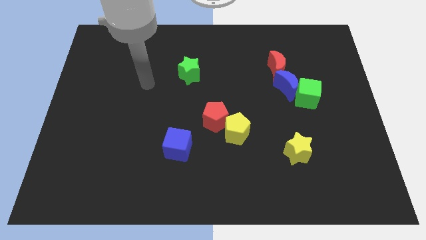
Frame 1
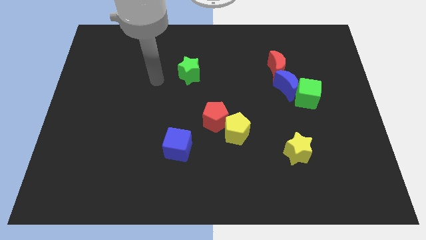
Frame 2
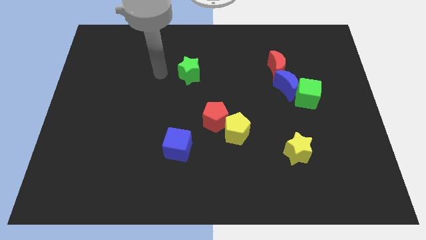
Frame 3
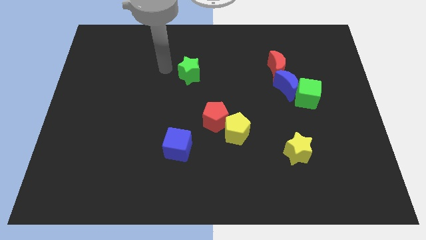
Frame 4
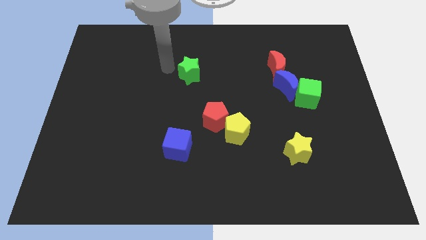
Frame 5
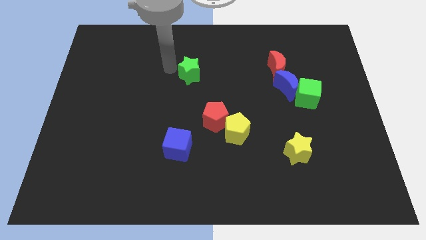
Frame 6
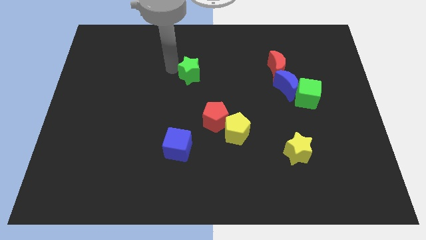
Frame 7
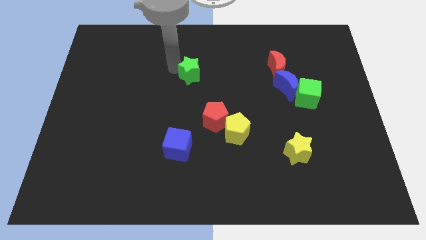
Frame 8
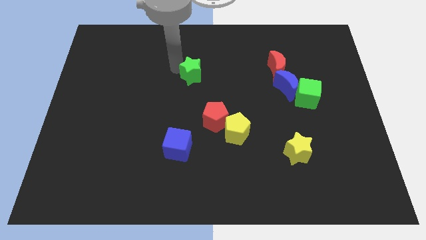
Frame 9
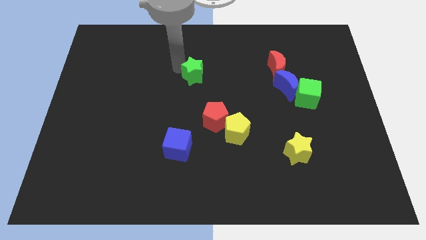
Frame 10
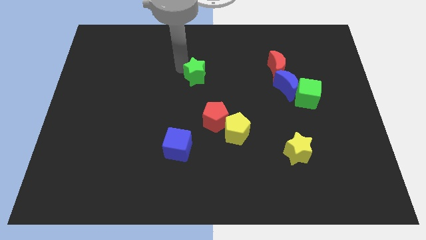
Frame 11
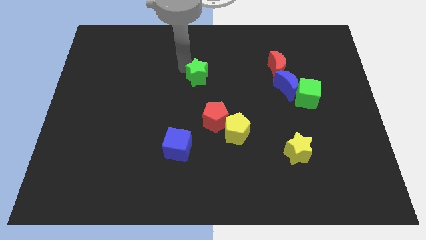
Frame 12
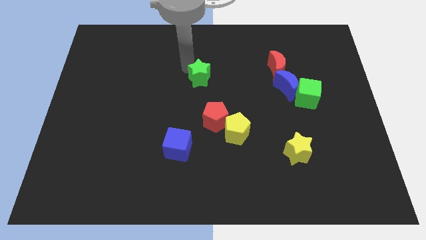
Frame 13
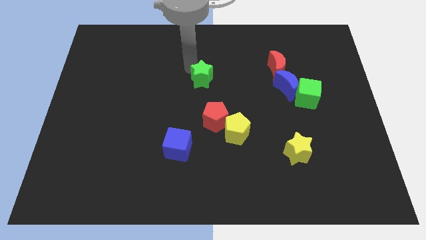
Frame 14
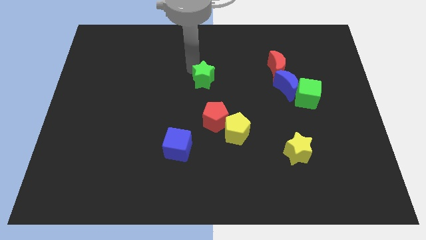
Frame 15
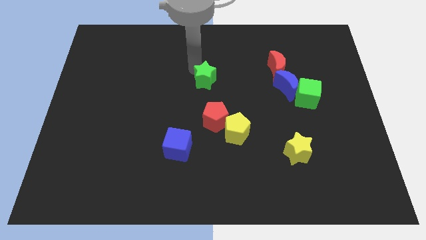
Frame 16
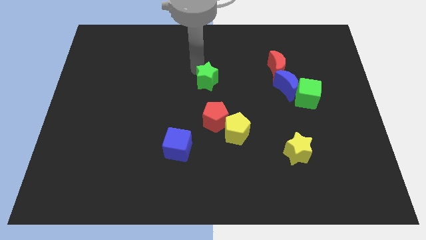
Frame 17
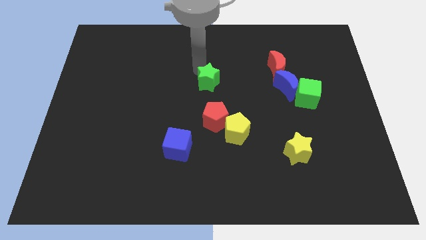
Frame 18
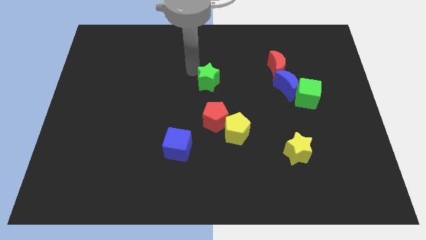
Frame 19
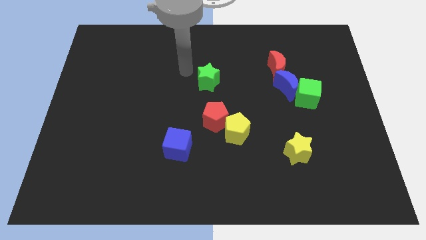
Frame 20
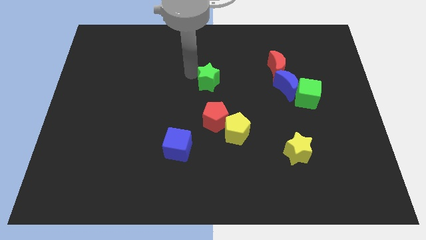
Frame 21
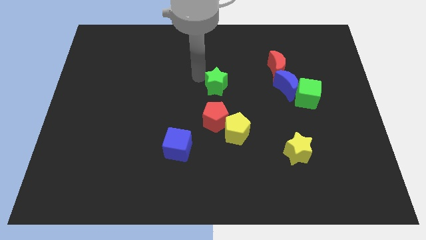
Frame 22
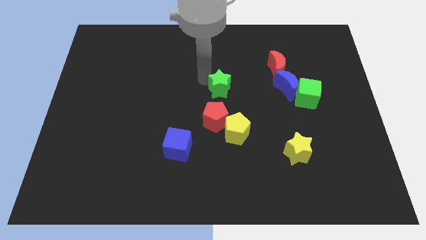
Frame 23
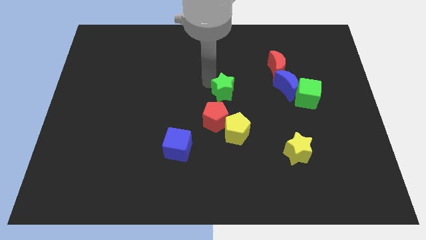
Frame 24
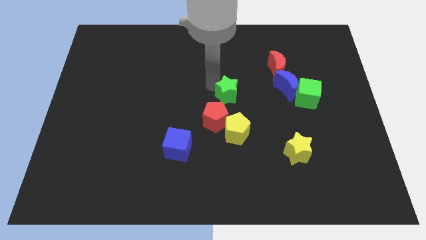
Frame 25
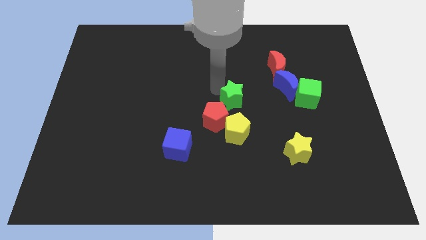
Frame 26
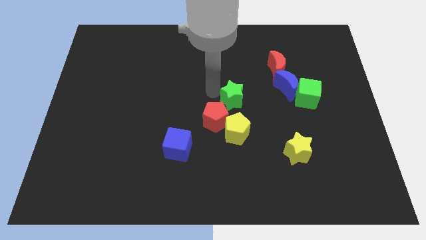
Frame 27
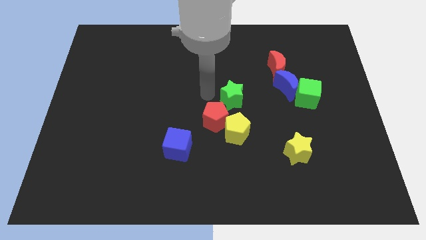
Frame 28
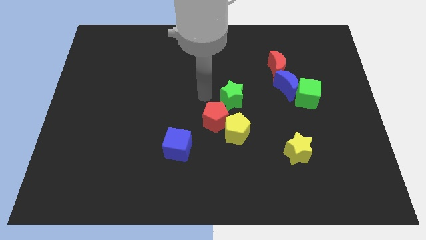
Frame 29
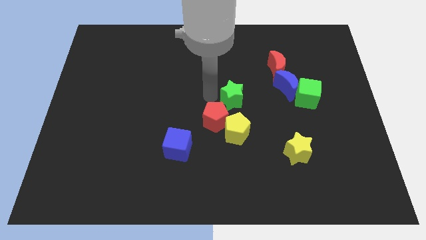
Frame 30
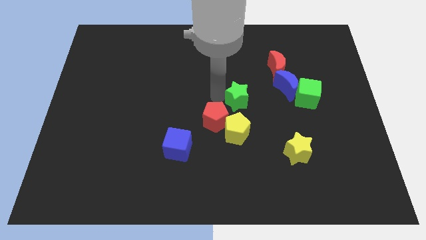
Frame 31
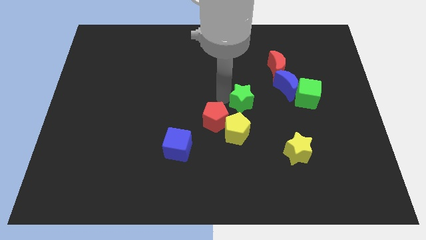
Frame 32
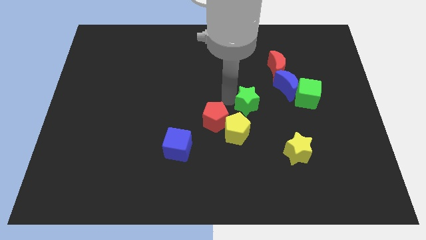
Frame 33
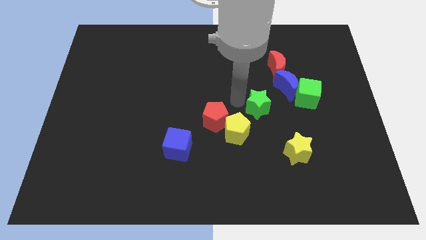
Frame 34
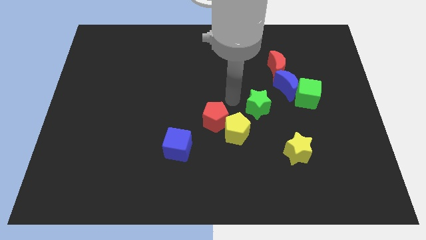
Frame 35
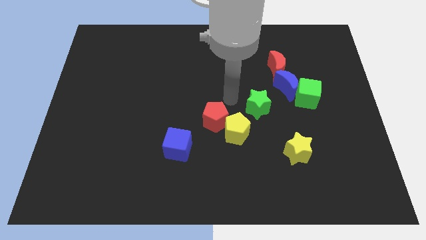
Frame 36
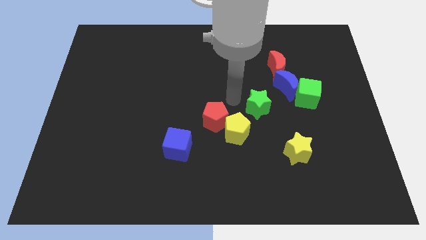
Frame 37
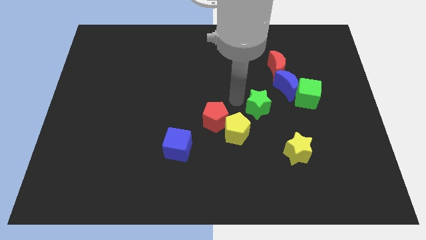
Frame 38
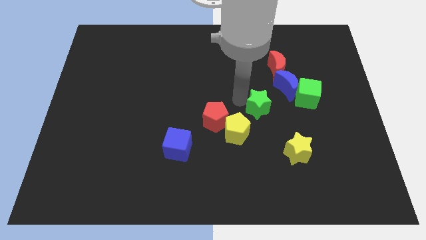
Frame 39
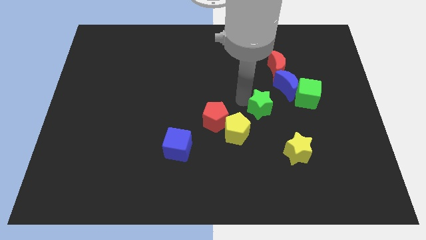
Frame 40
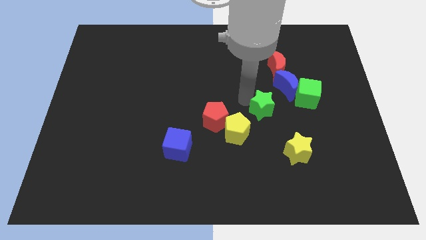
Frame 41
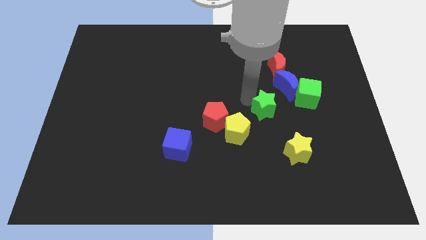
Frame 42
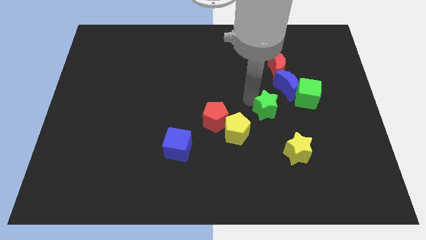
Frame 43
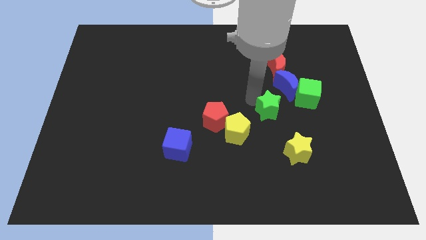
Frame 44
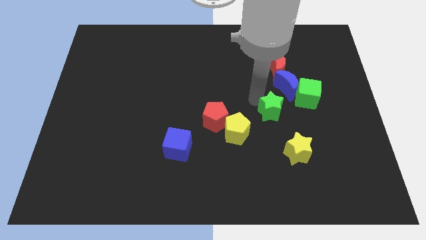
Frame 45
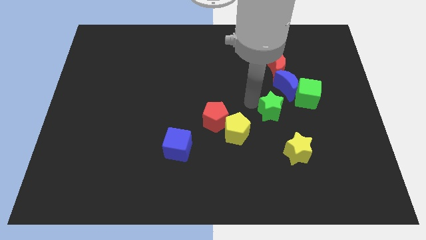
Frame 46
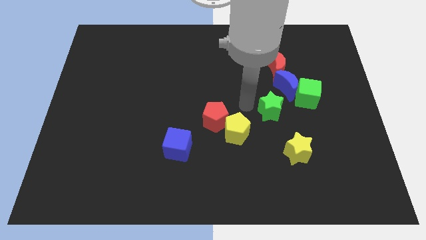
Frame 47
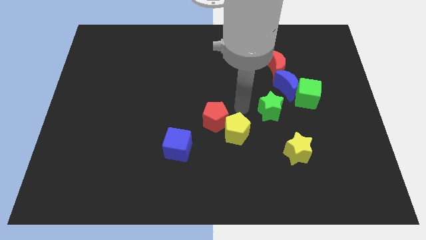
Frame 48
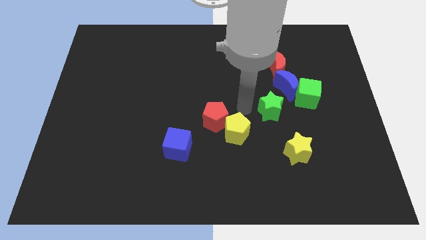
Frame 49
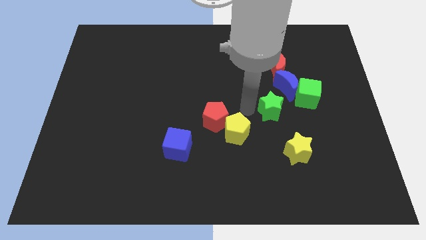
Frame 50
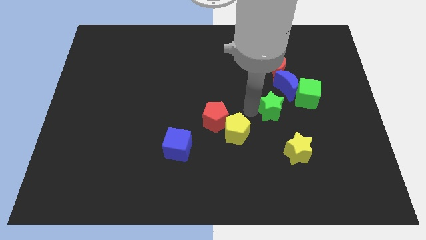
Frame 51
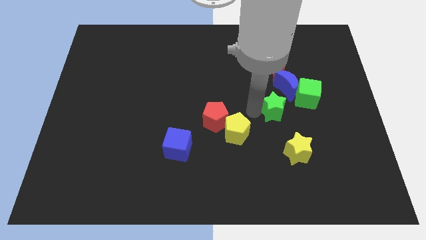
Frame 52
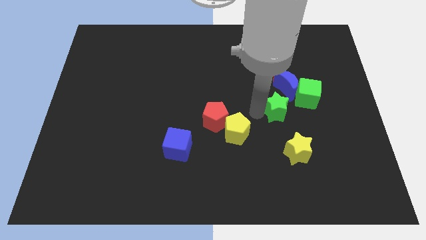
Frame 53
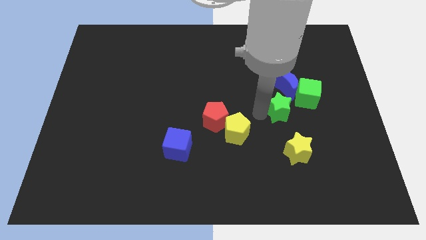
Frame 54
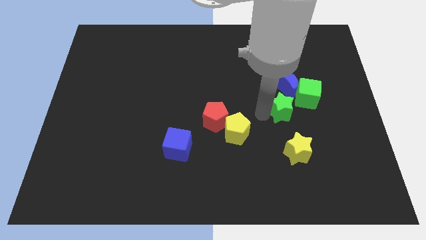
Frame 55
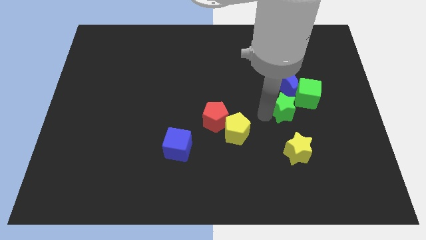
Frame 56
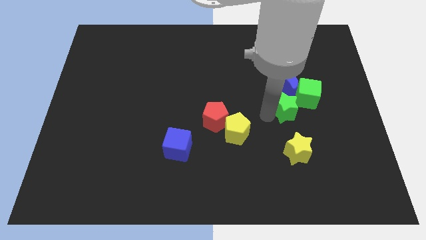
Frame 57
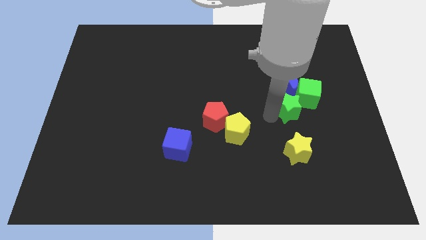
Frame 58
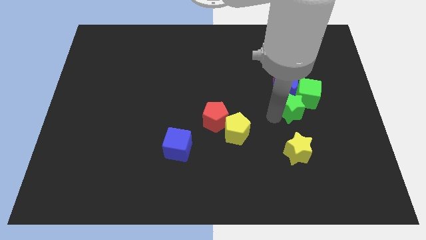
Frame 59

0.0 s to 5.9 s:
put the green star close to the green cube

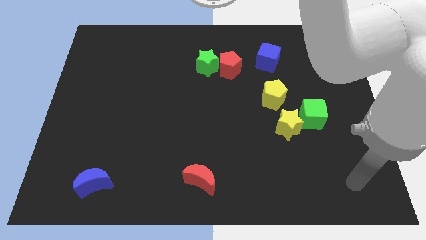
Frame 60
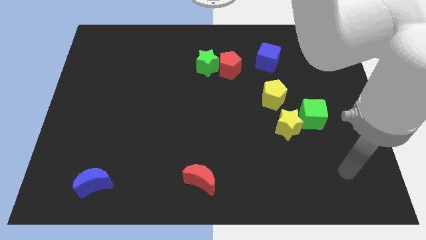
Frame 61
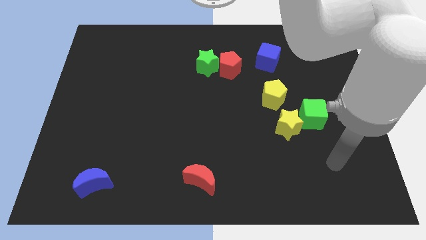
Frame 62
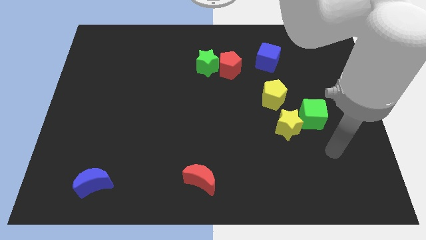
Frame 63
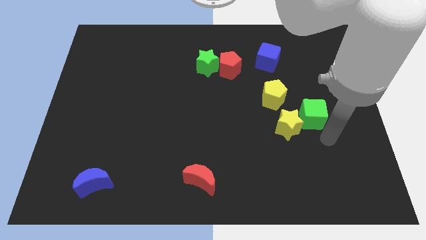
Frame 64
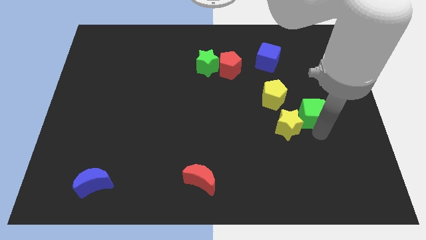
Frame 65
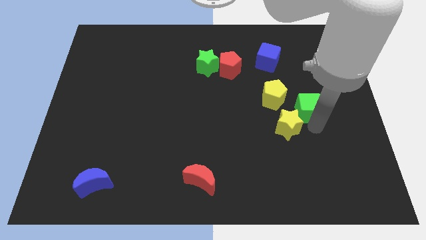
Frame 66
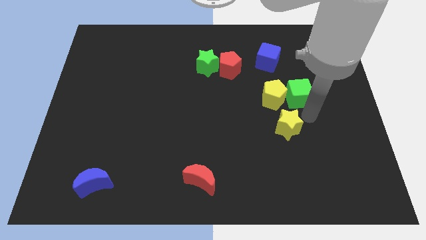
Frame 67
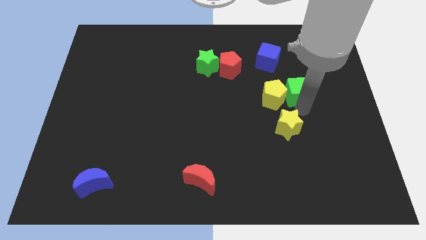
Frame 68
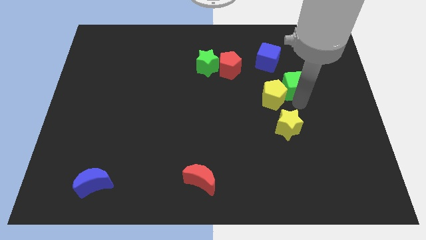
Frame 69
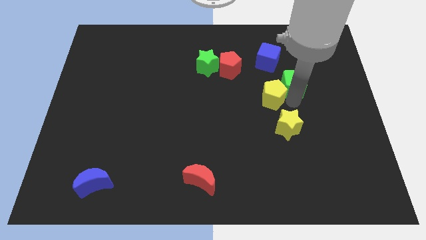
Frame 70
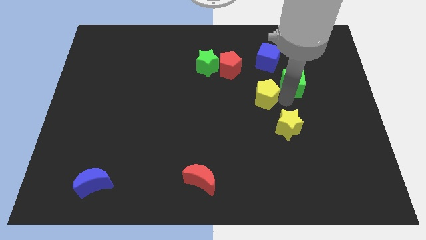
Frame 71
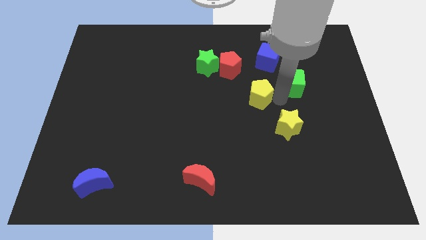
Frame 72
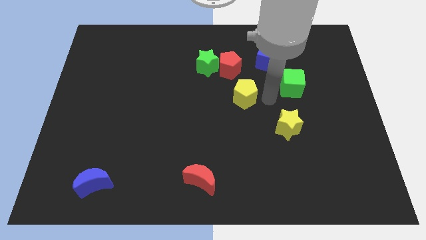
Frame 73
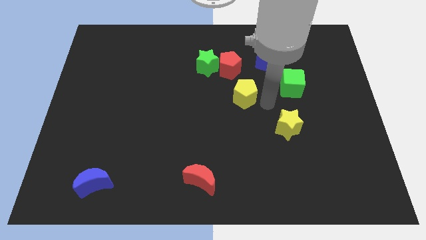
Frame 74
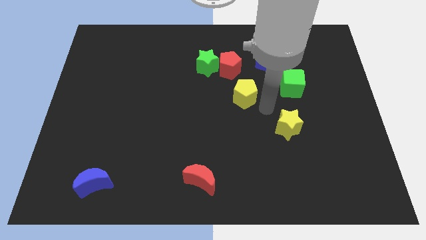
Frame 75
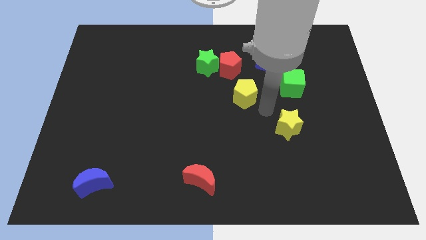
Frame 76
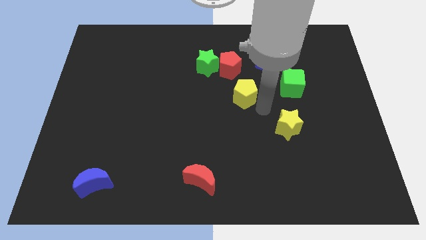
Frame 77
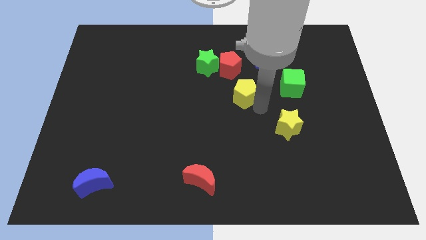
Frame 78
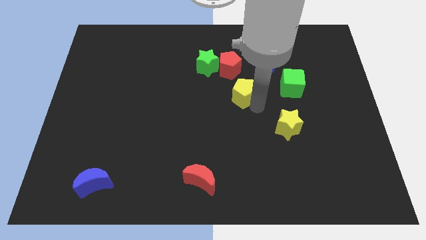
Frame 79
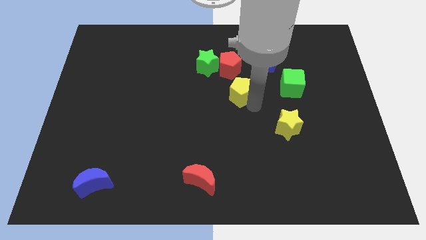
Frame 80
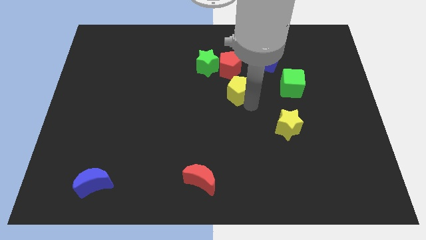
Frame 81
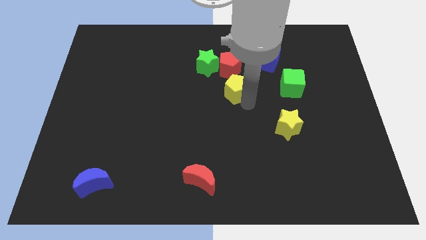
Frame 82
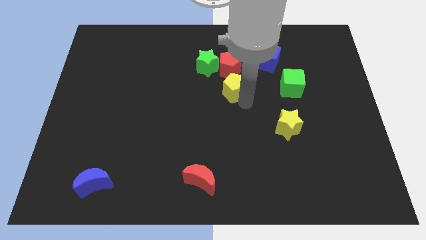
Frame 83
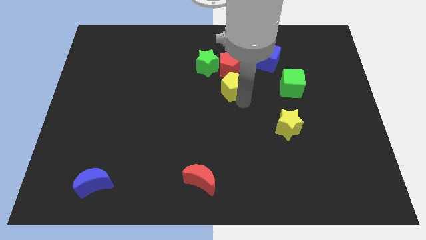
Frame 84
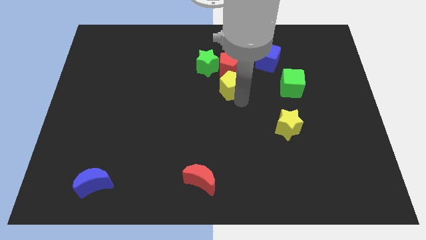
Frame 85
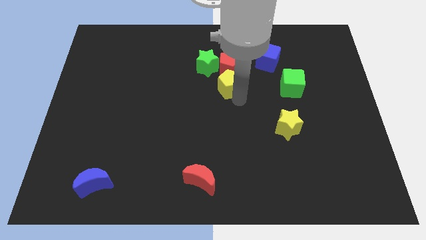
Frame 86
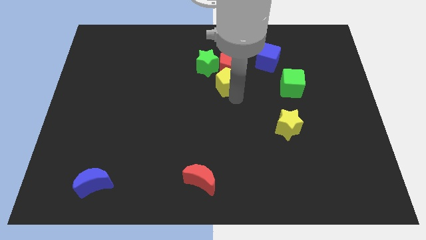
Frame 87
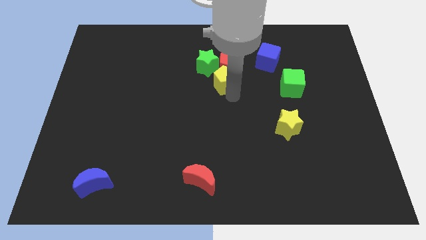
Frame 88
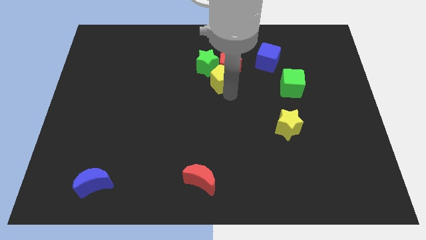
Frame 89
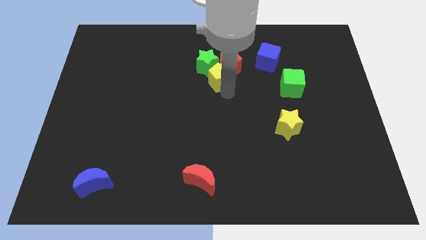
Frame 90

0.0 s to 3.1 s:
put the yellow pentagon to the green star
